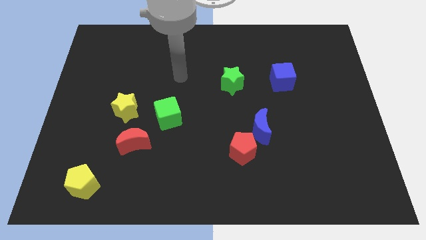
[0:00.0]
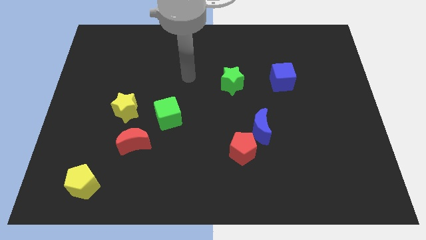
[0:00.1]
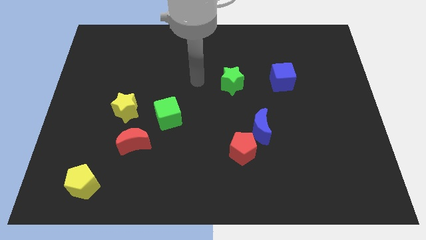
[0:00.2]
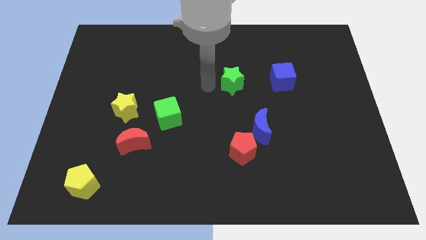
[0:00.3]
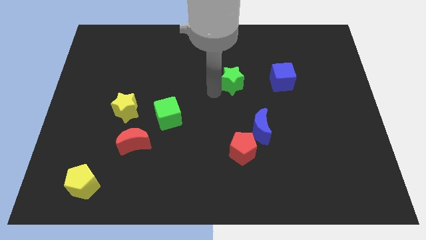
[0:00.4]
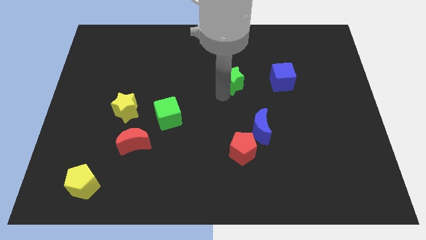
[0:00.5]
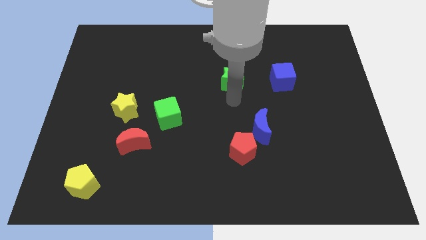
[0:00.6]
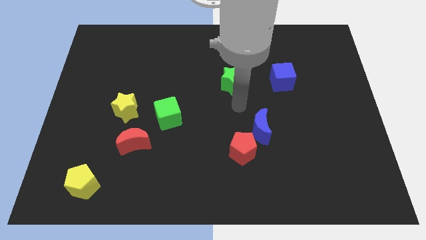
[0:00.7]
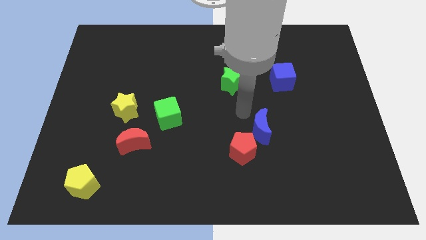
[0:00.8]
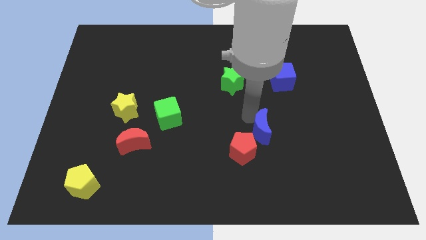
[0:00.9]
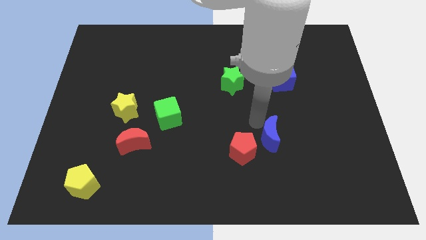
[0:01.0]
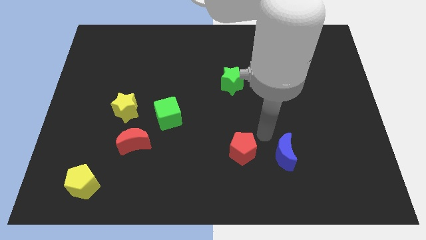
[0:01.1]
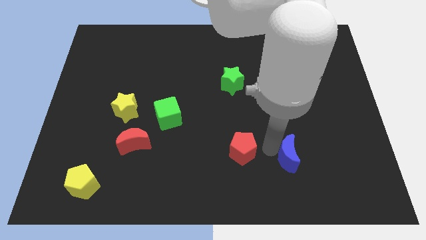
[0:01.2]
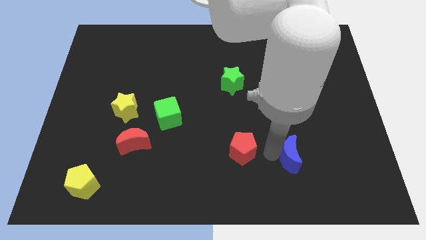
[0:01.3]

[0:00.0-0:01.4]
separate the red pentagon from the blue moon

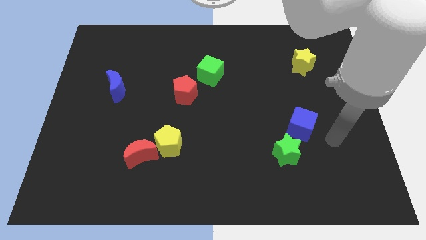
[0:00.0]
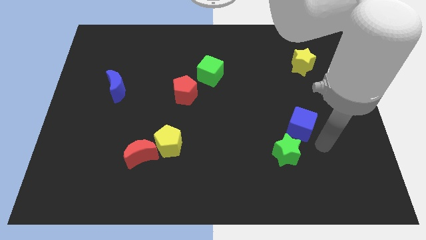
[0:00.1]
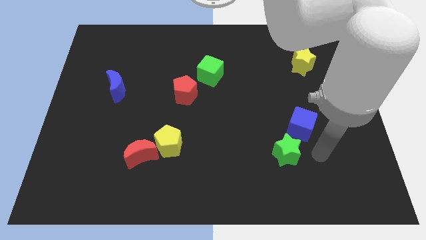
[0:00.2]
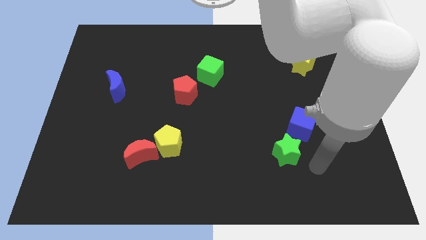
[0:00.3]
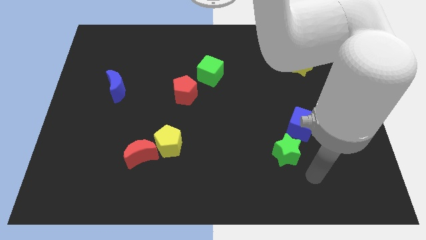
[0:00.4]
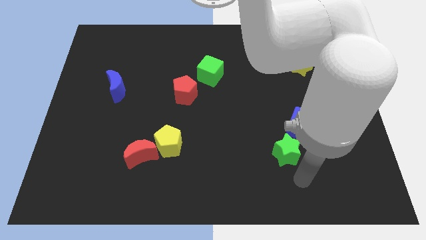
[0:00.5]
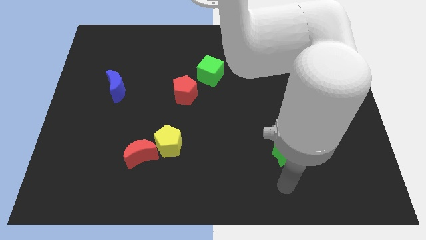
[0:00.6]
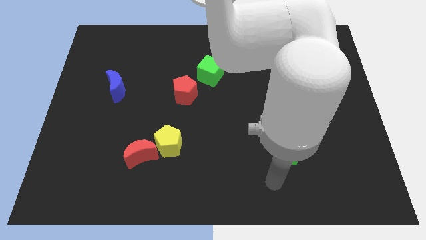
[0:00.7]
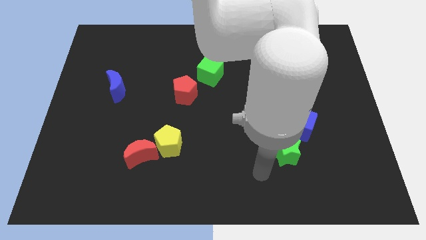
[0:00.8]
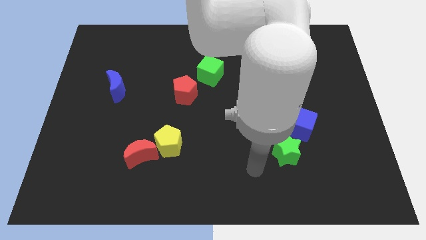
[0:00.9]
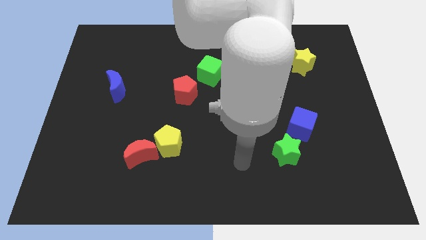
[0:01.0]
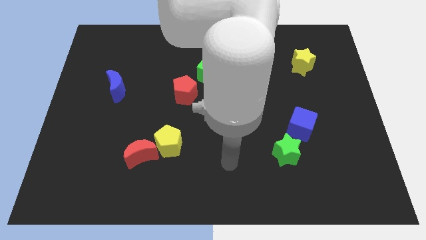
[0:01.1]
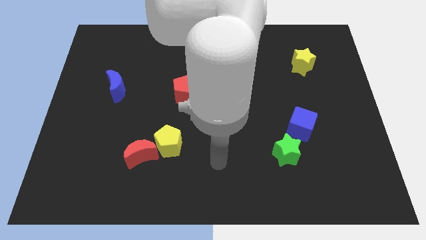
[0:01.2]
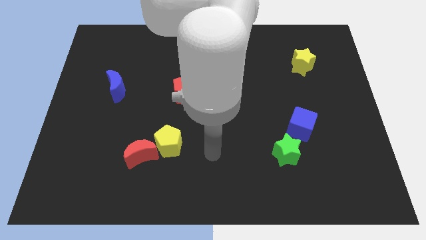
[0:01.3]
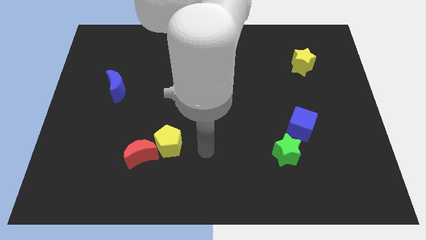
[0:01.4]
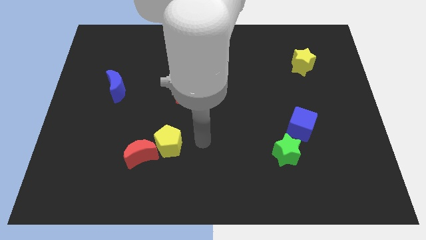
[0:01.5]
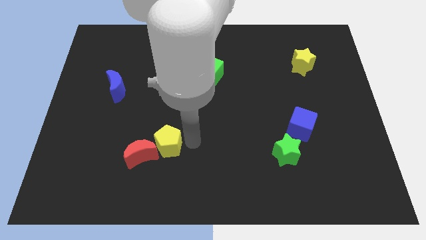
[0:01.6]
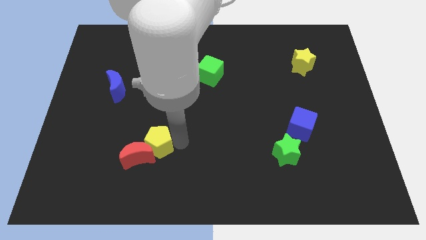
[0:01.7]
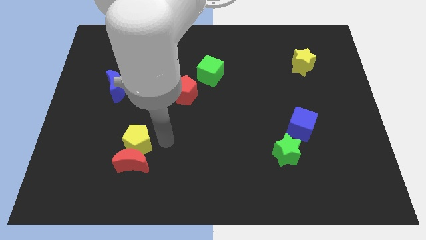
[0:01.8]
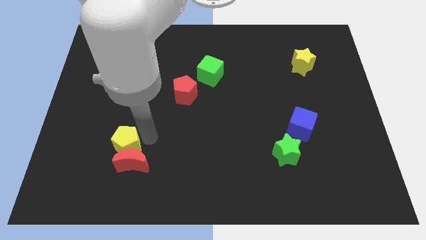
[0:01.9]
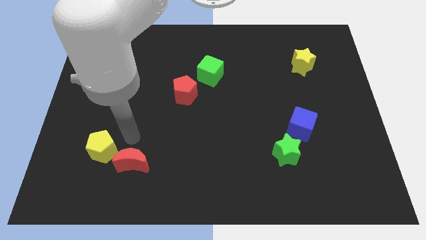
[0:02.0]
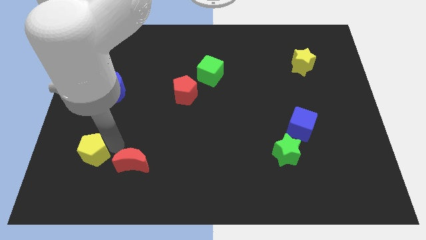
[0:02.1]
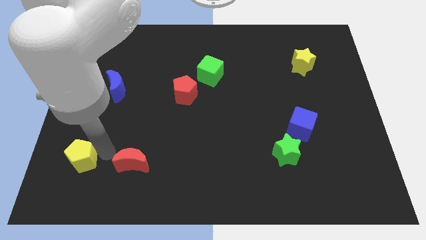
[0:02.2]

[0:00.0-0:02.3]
pull the red moon apart from the yellow pentagon

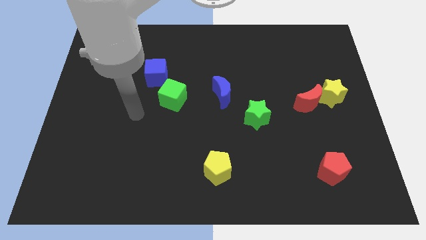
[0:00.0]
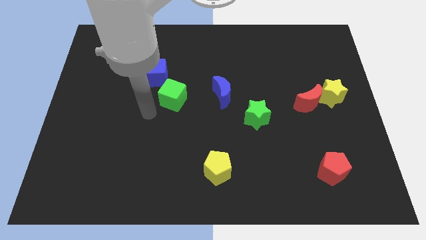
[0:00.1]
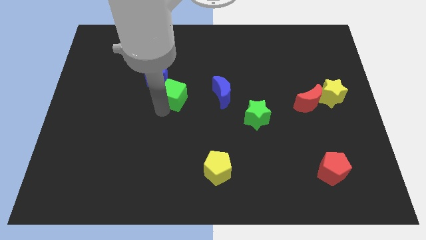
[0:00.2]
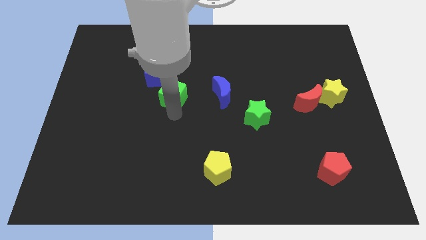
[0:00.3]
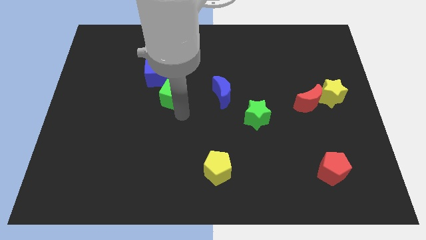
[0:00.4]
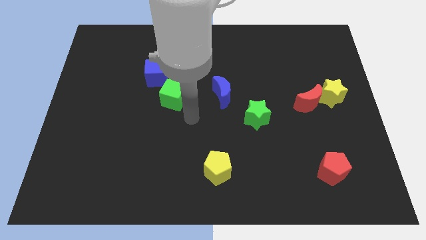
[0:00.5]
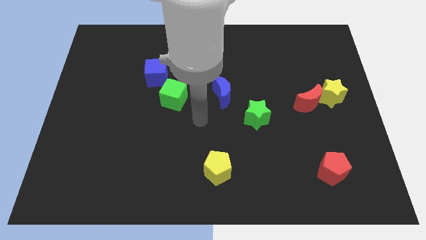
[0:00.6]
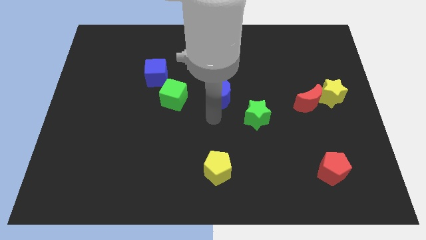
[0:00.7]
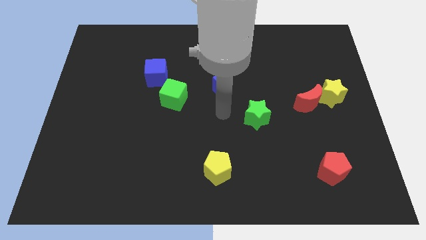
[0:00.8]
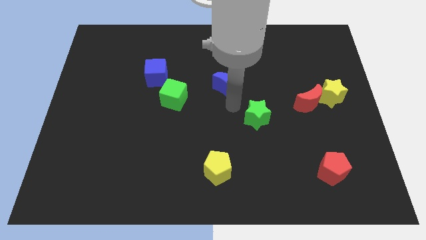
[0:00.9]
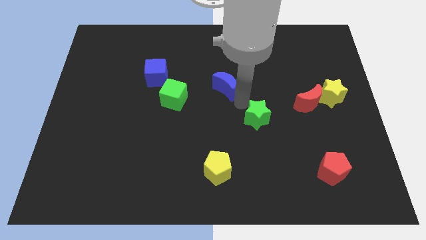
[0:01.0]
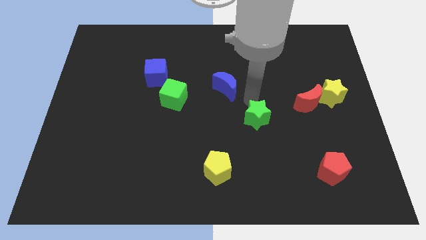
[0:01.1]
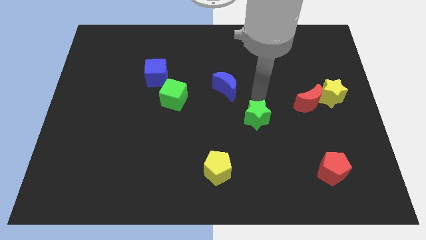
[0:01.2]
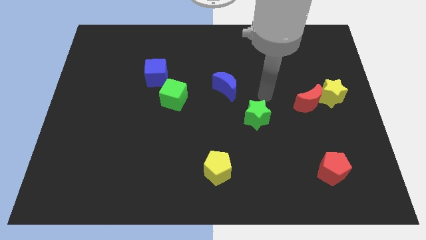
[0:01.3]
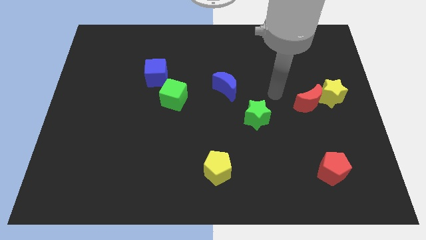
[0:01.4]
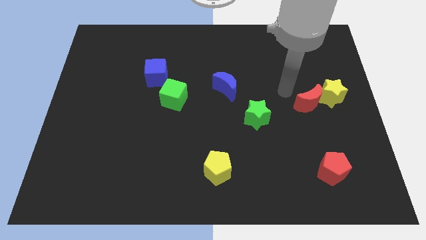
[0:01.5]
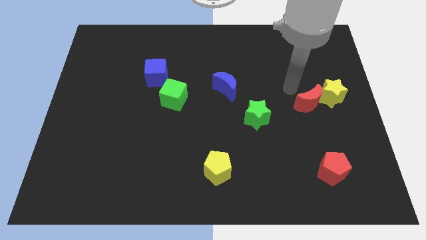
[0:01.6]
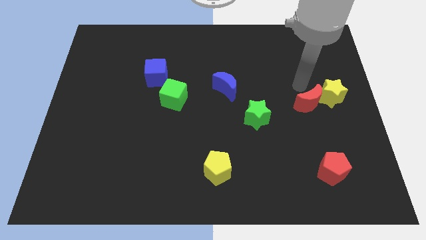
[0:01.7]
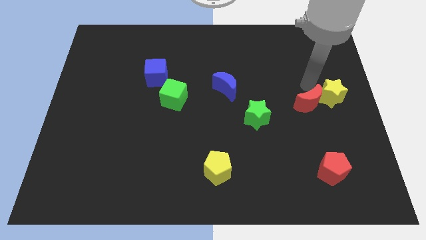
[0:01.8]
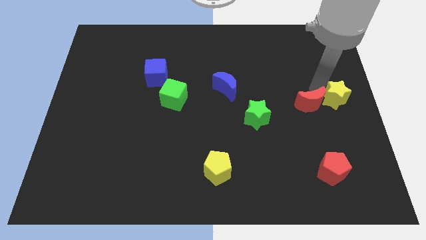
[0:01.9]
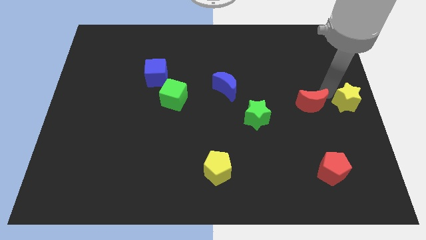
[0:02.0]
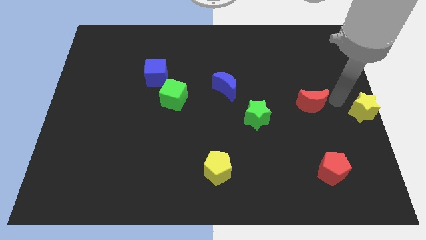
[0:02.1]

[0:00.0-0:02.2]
separate the red moon from the yellow star

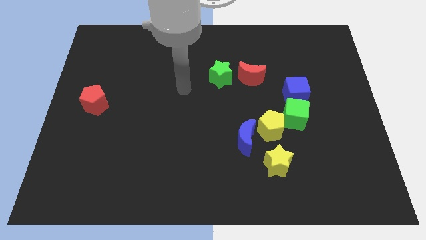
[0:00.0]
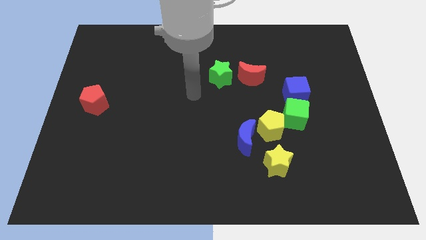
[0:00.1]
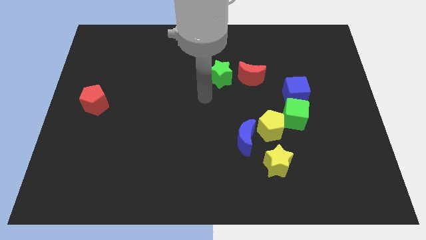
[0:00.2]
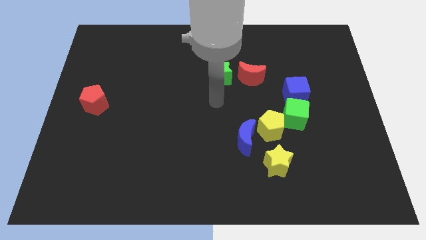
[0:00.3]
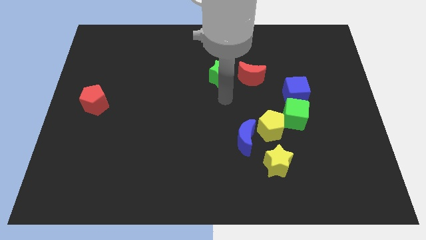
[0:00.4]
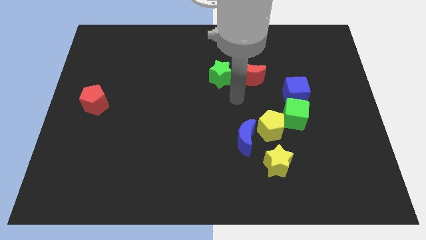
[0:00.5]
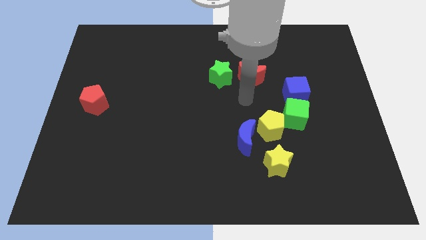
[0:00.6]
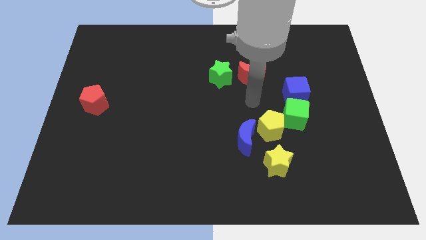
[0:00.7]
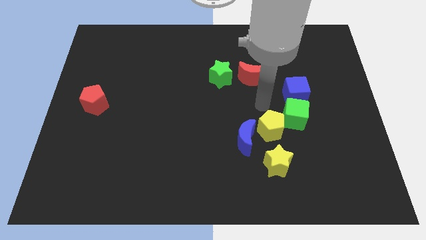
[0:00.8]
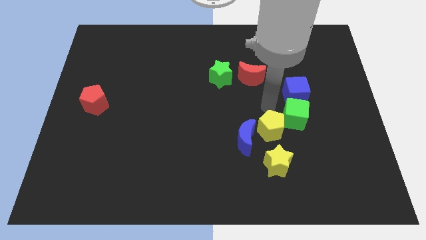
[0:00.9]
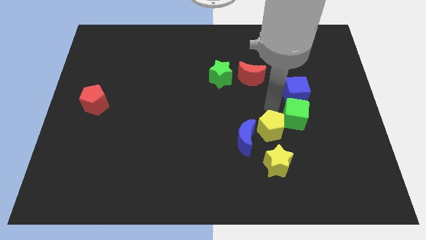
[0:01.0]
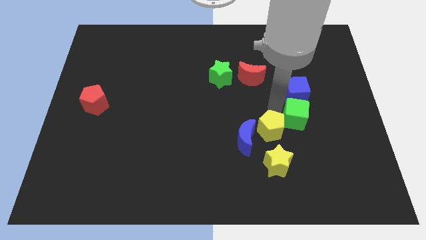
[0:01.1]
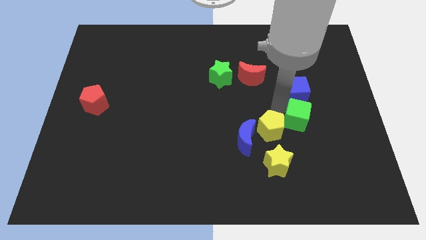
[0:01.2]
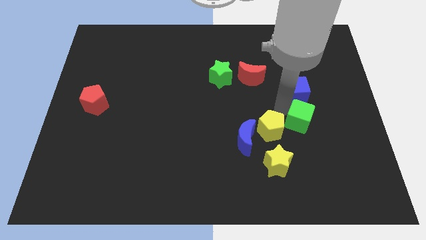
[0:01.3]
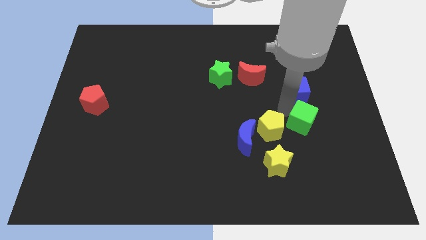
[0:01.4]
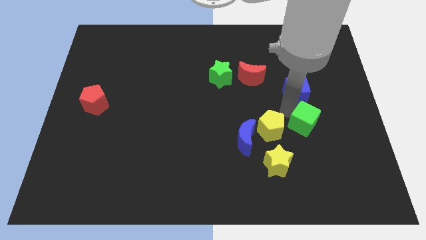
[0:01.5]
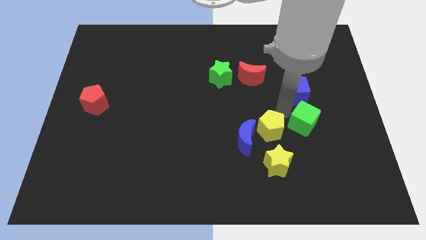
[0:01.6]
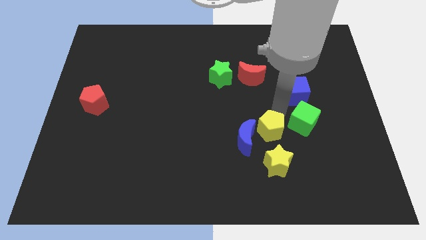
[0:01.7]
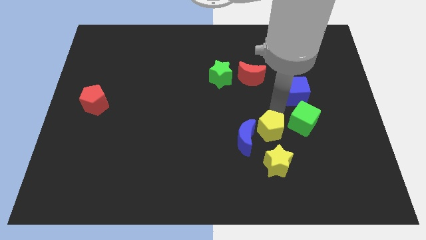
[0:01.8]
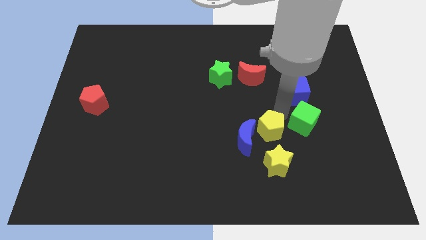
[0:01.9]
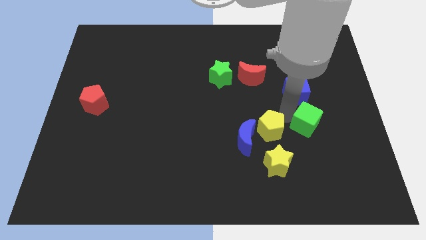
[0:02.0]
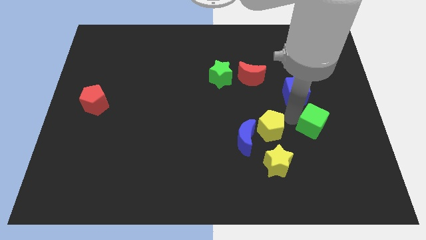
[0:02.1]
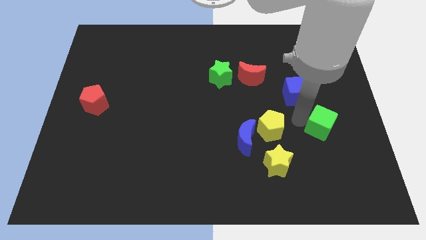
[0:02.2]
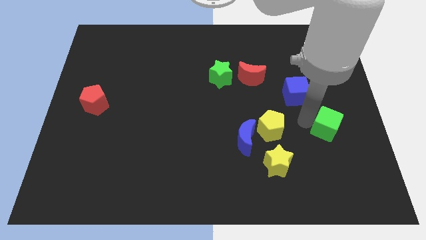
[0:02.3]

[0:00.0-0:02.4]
move the green cube away from the yellow pentagon and blue cube

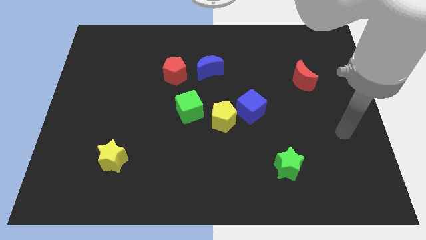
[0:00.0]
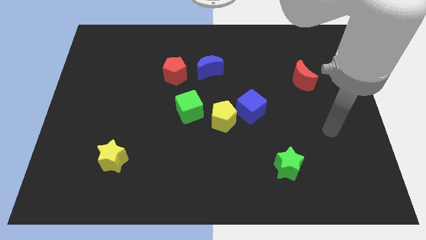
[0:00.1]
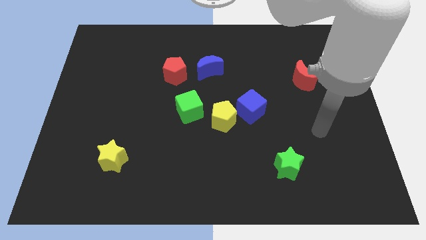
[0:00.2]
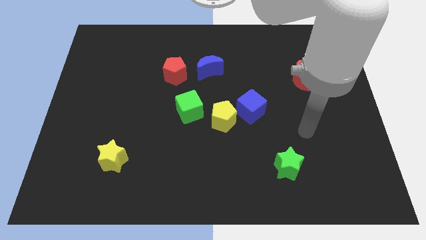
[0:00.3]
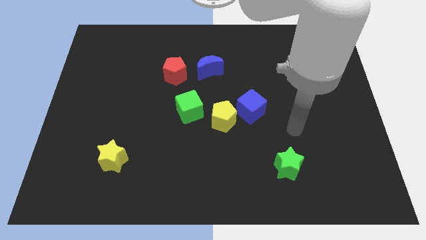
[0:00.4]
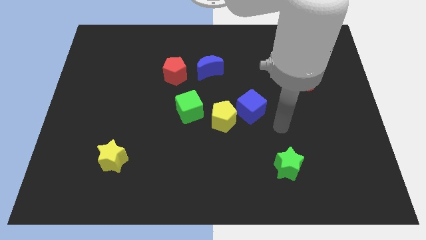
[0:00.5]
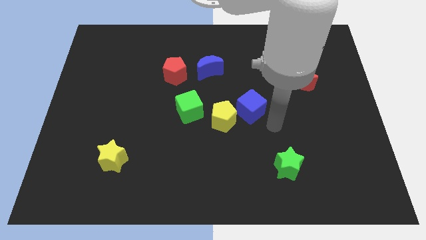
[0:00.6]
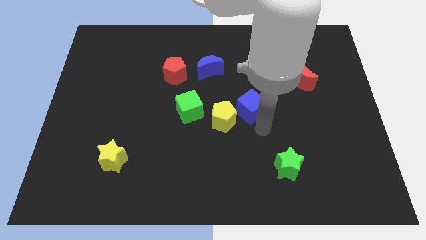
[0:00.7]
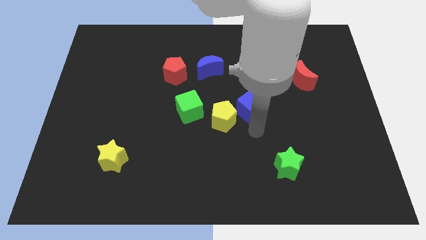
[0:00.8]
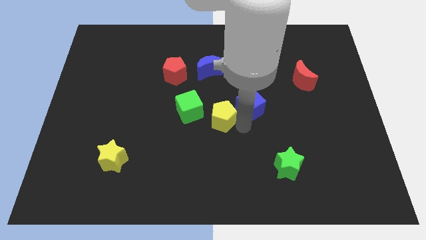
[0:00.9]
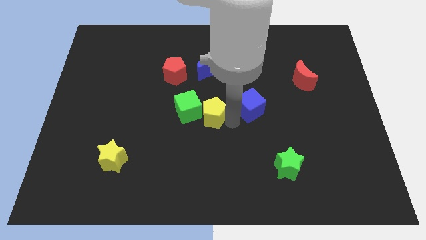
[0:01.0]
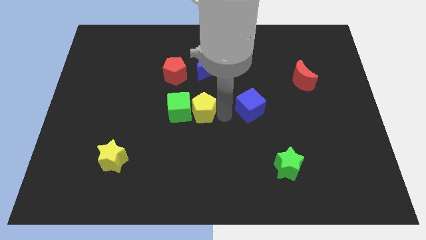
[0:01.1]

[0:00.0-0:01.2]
move the blue cube away from the yellow pentagon
